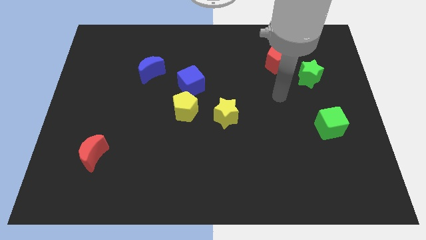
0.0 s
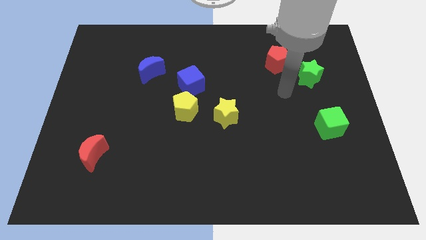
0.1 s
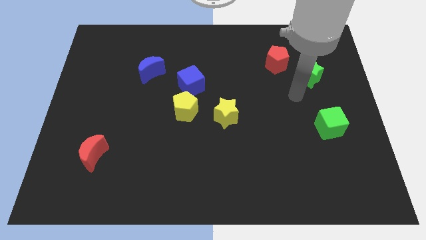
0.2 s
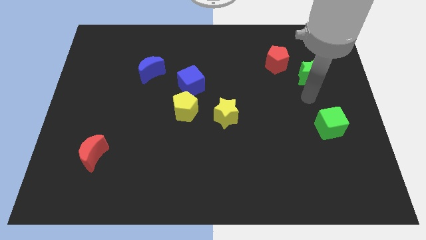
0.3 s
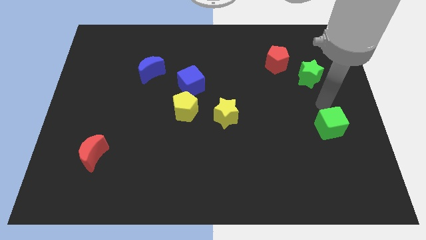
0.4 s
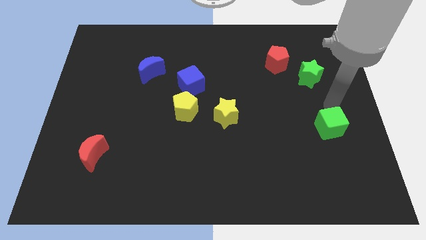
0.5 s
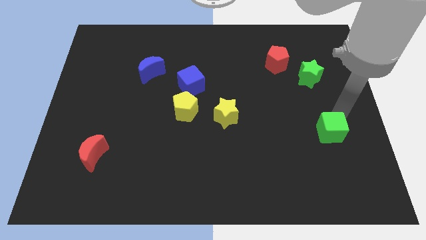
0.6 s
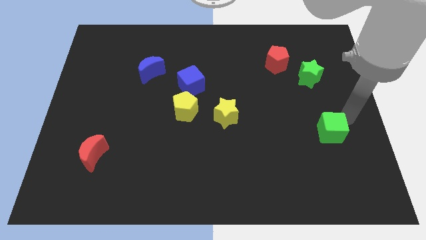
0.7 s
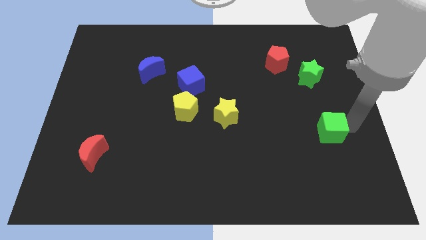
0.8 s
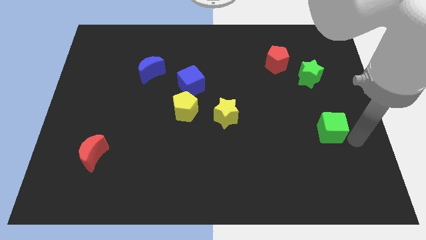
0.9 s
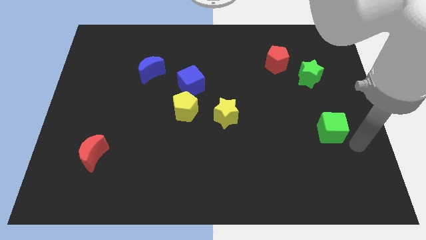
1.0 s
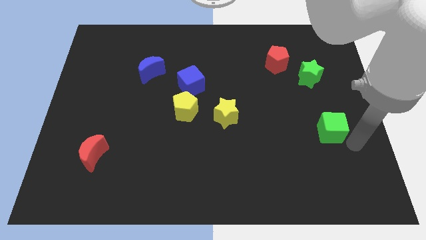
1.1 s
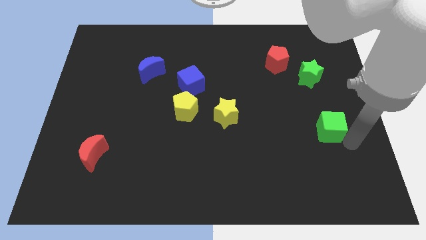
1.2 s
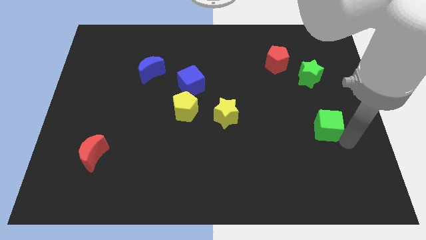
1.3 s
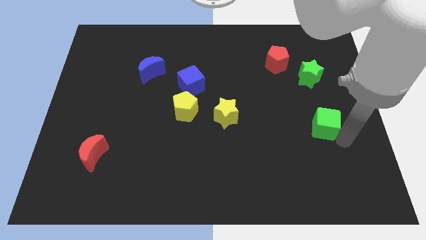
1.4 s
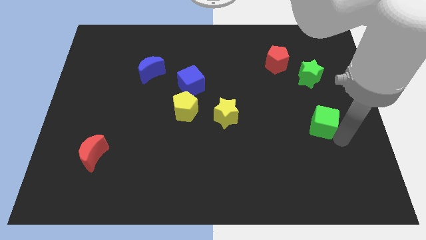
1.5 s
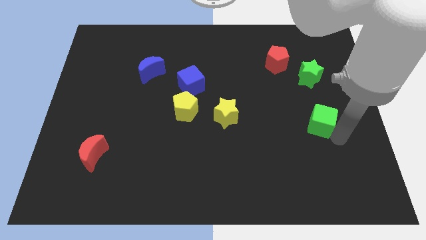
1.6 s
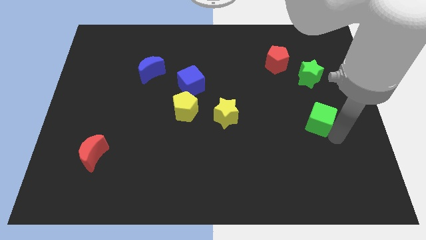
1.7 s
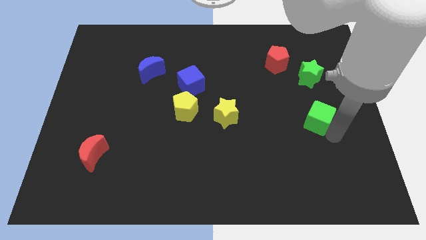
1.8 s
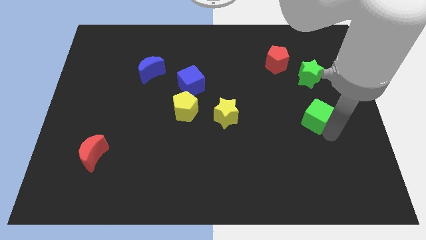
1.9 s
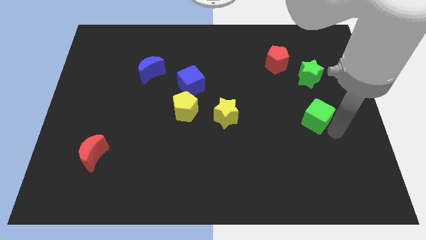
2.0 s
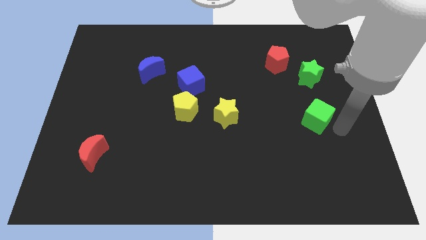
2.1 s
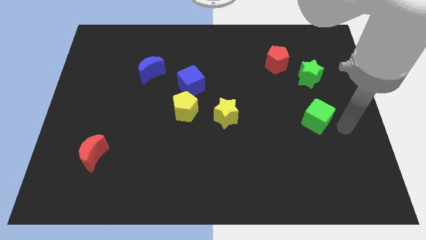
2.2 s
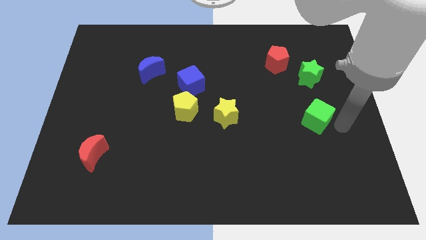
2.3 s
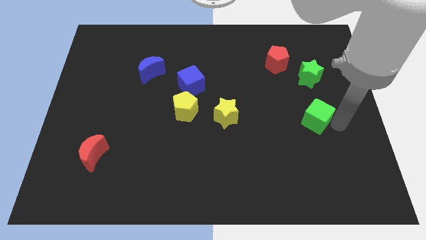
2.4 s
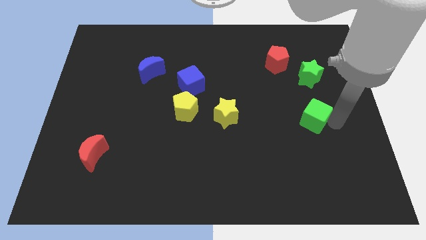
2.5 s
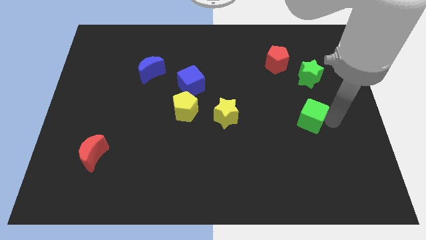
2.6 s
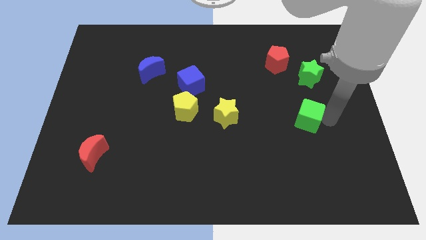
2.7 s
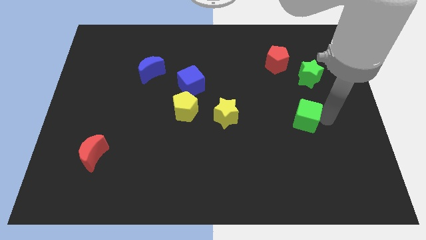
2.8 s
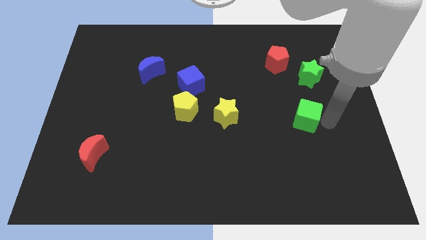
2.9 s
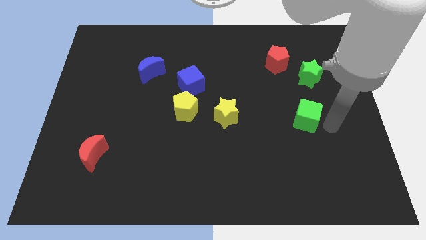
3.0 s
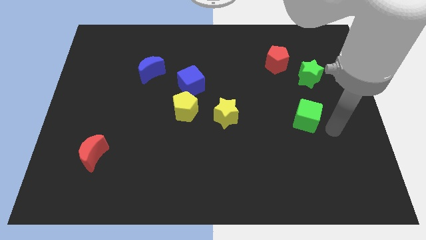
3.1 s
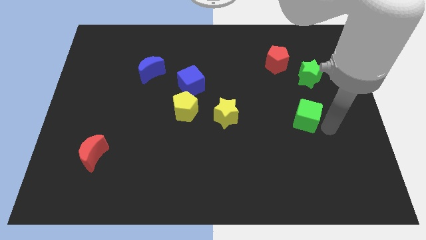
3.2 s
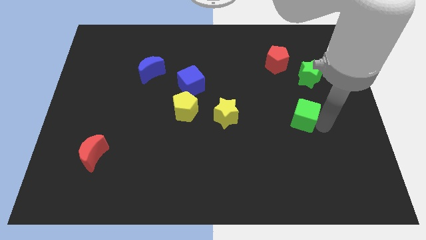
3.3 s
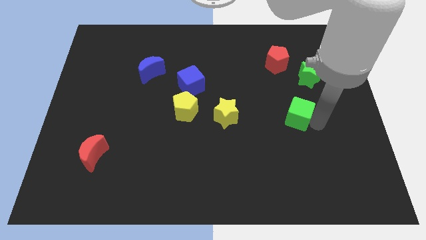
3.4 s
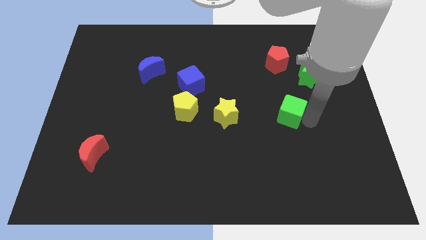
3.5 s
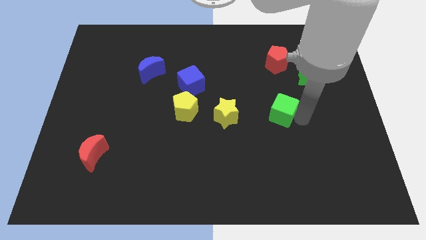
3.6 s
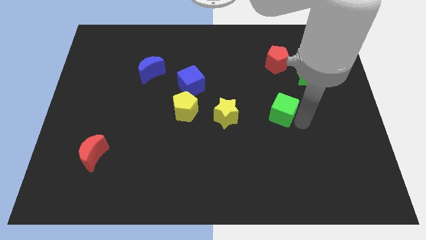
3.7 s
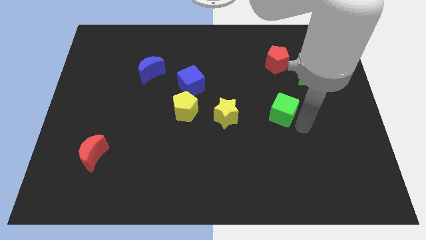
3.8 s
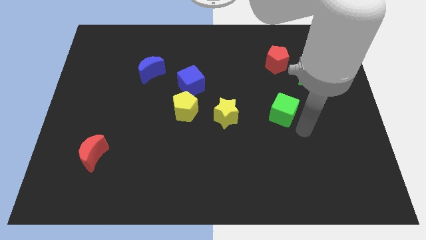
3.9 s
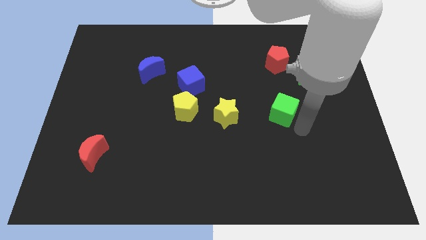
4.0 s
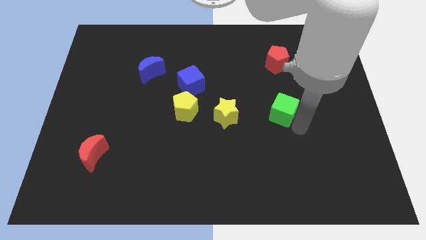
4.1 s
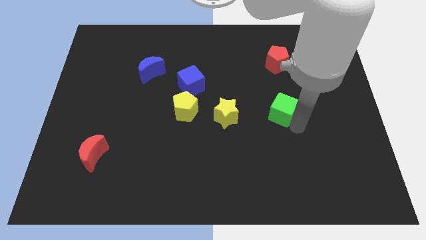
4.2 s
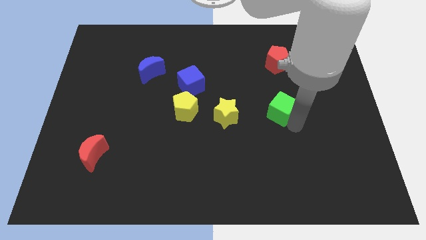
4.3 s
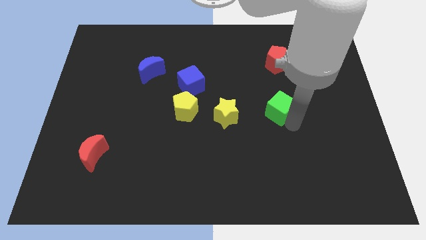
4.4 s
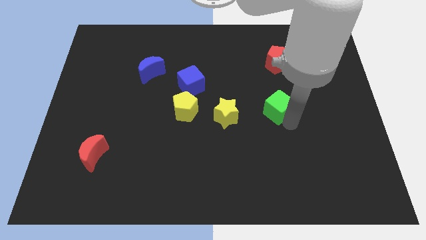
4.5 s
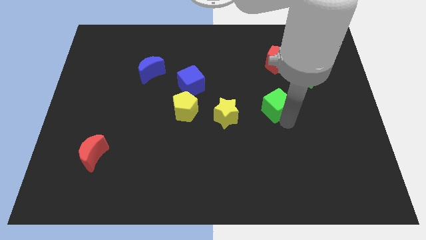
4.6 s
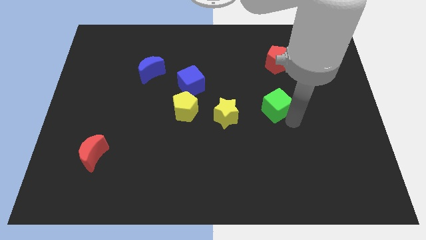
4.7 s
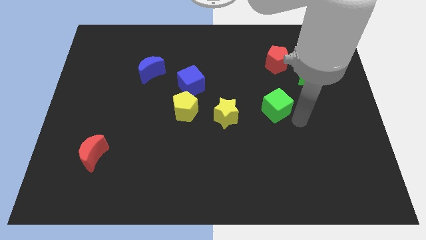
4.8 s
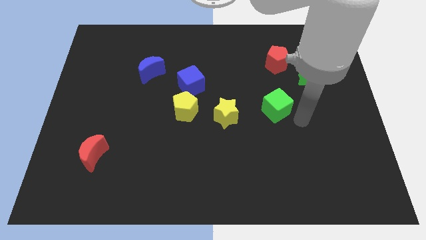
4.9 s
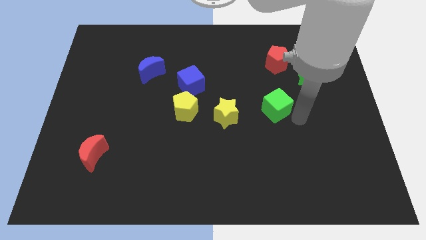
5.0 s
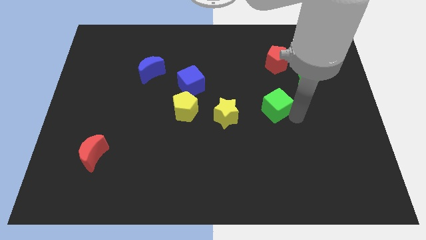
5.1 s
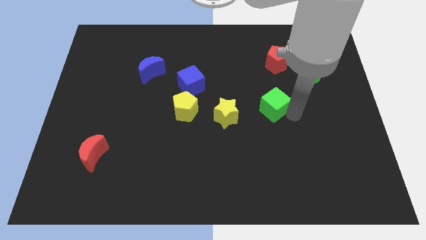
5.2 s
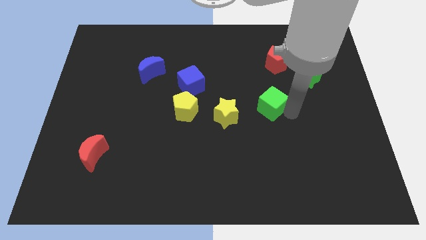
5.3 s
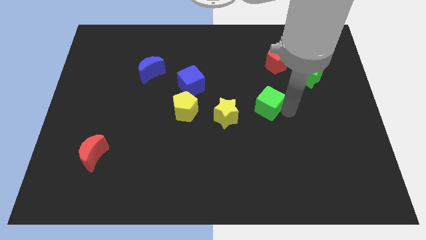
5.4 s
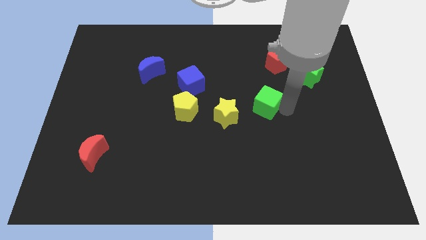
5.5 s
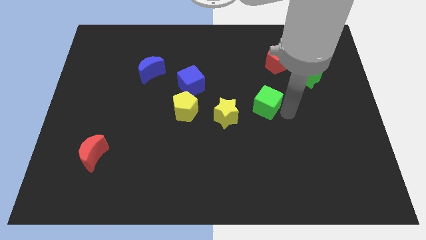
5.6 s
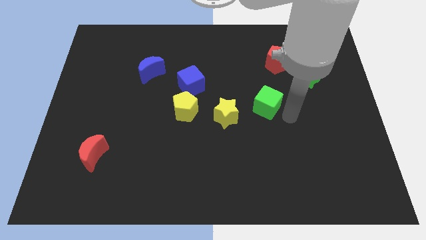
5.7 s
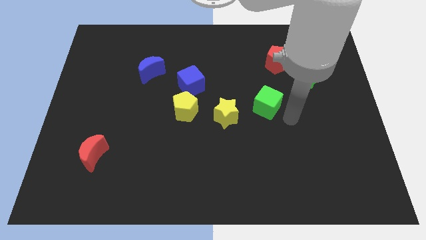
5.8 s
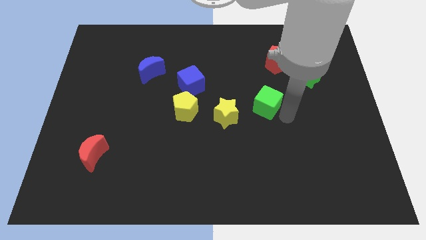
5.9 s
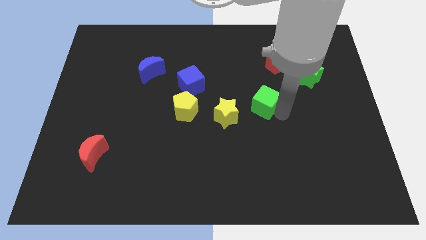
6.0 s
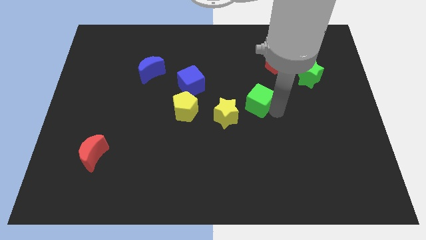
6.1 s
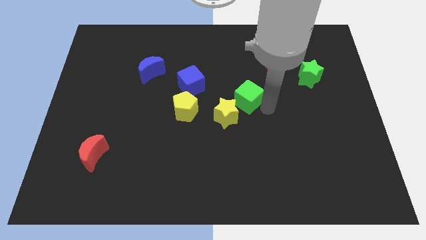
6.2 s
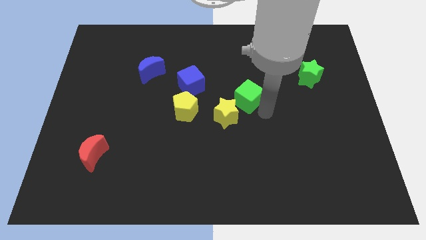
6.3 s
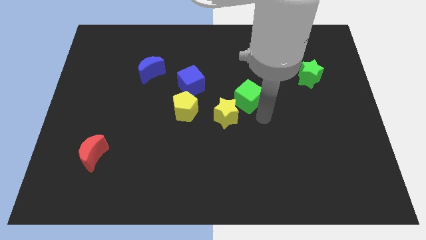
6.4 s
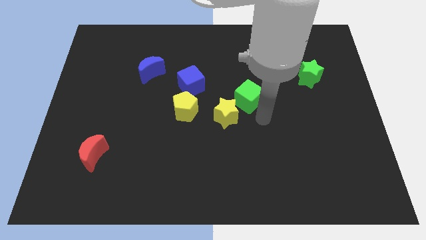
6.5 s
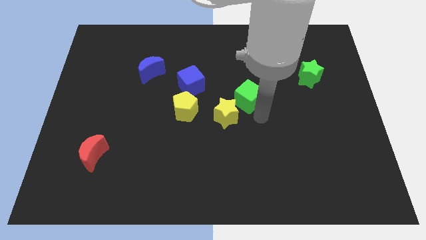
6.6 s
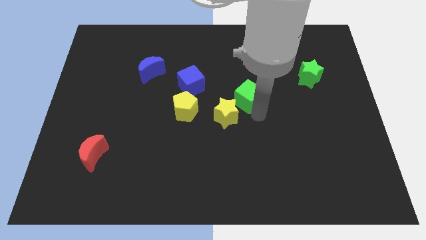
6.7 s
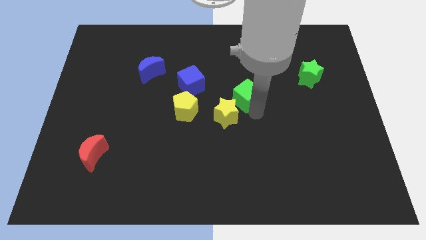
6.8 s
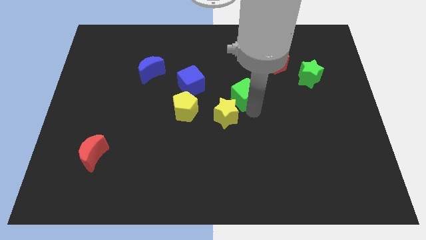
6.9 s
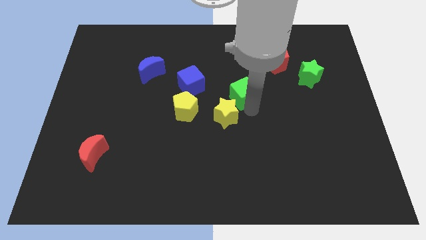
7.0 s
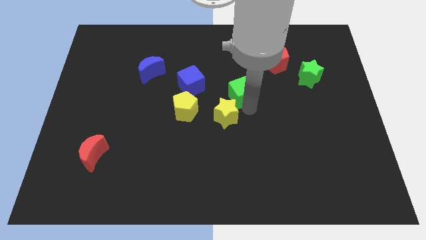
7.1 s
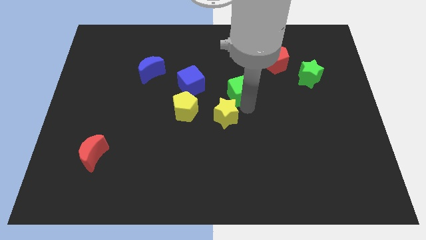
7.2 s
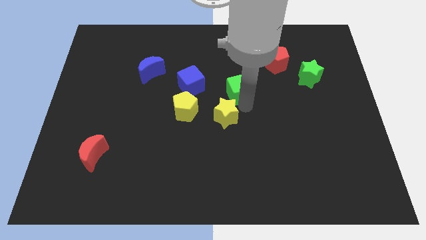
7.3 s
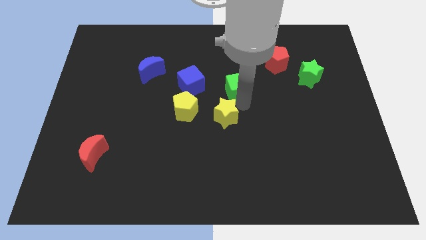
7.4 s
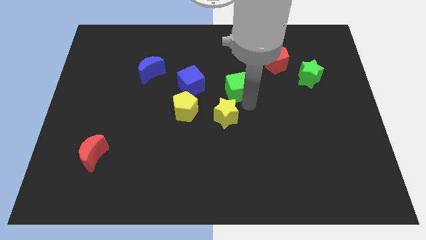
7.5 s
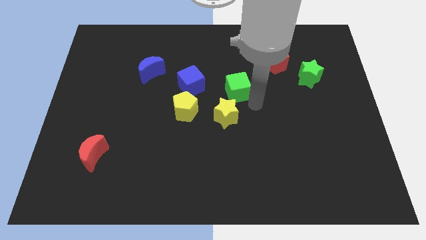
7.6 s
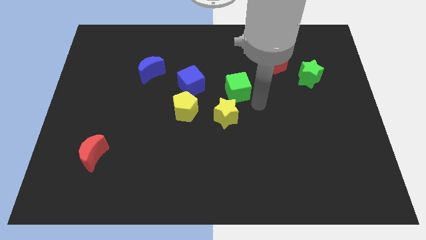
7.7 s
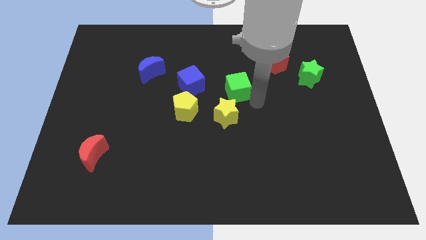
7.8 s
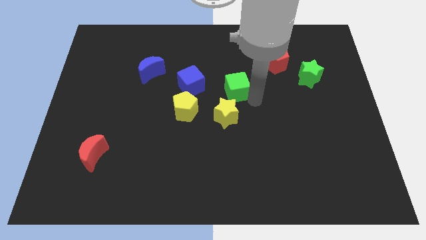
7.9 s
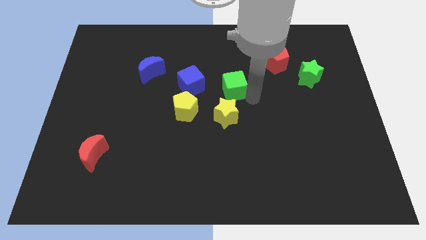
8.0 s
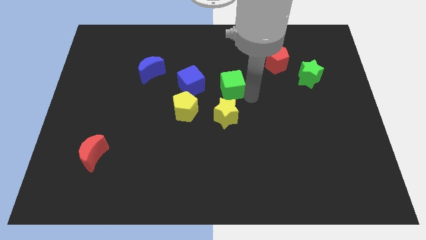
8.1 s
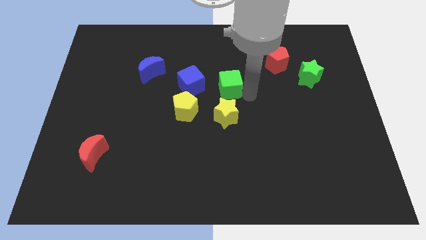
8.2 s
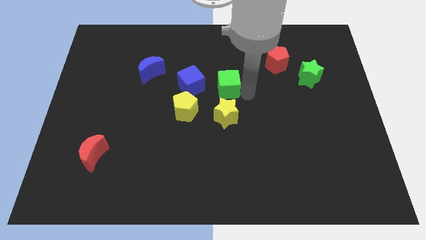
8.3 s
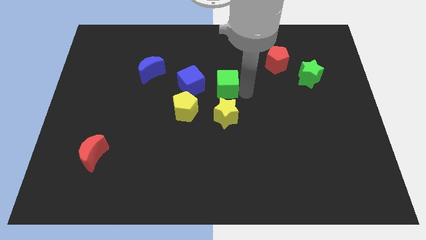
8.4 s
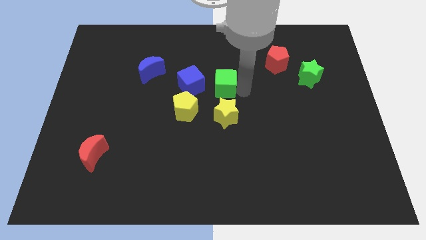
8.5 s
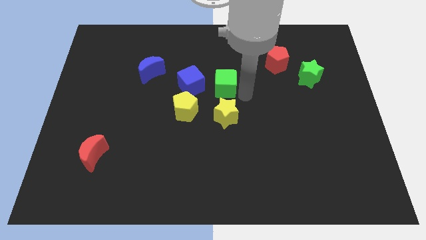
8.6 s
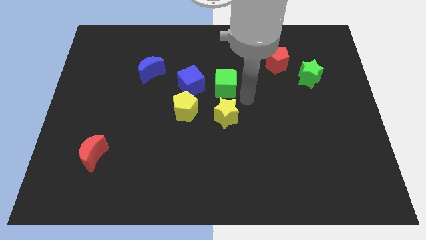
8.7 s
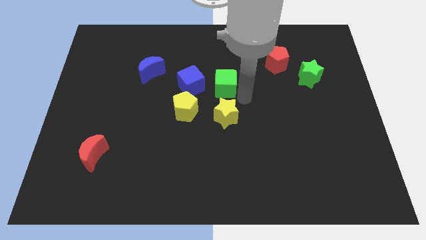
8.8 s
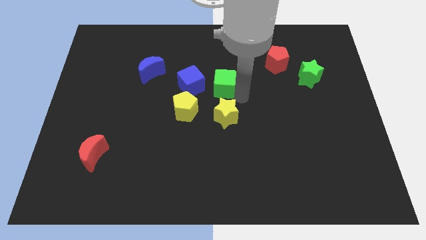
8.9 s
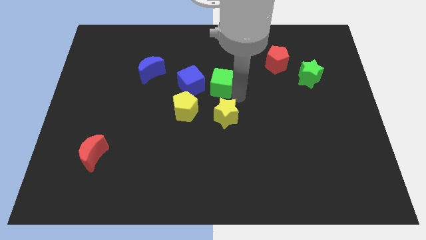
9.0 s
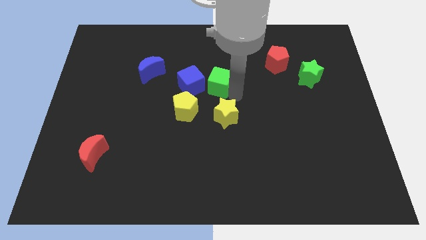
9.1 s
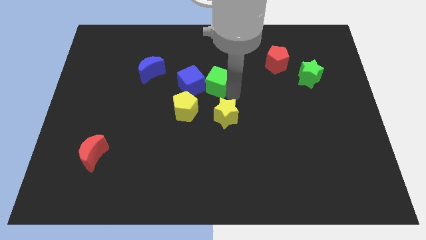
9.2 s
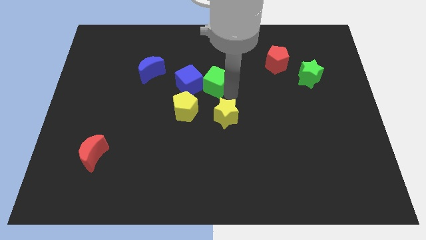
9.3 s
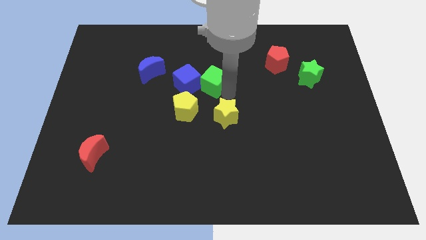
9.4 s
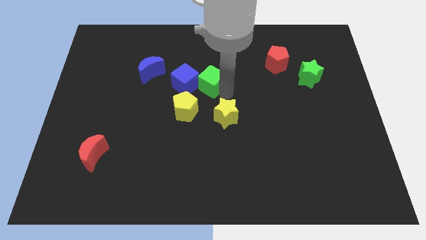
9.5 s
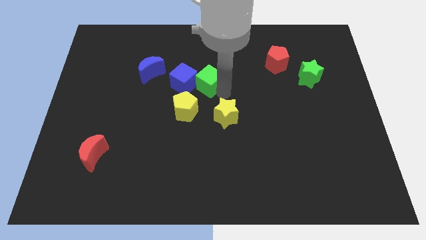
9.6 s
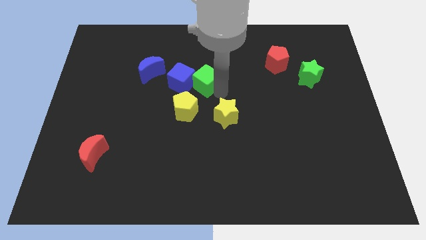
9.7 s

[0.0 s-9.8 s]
put the green cube right of the blue moon
